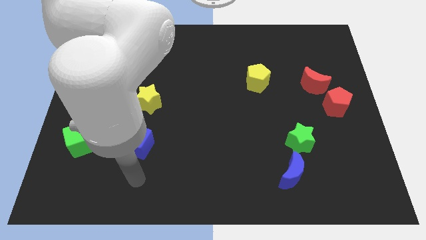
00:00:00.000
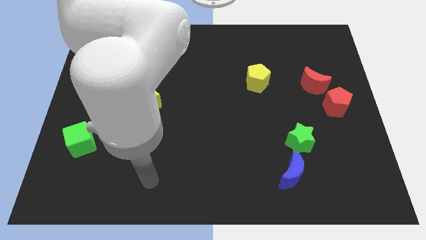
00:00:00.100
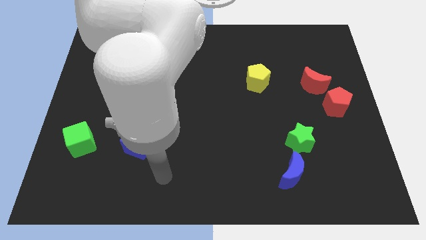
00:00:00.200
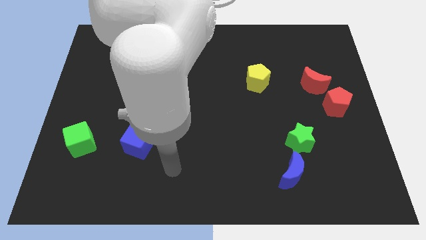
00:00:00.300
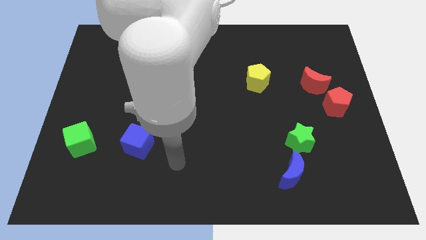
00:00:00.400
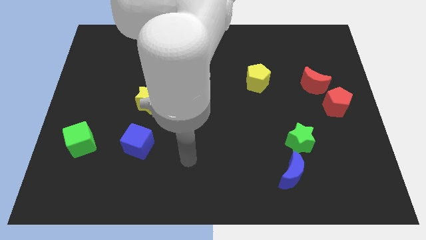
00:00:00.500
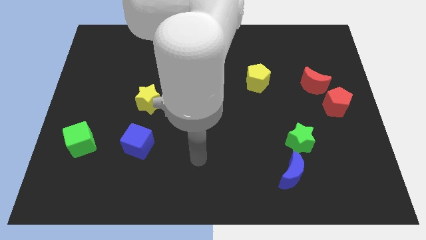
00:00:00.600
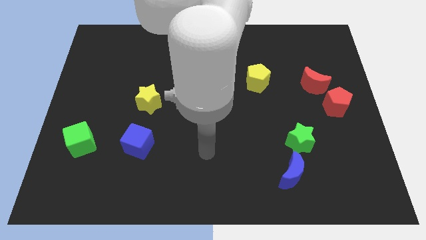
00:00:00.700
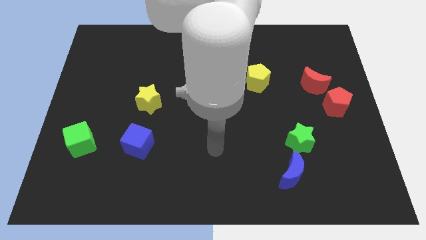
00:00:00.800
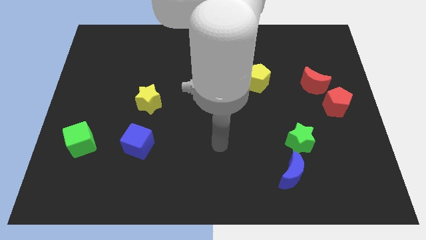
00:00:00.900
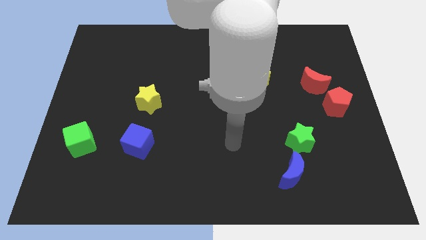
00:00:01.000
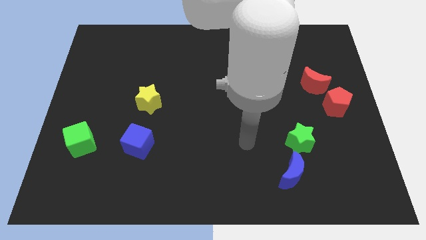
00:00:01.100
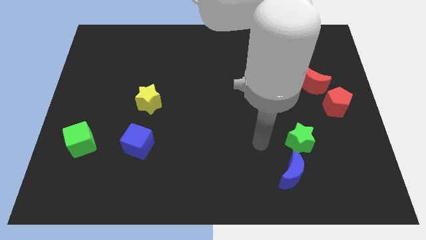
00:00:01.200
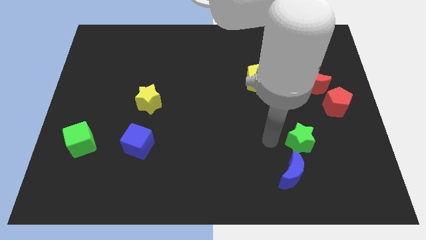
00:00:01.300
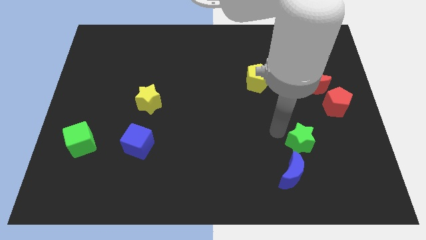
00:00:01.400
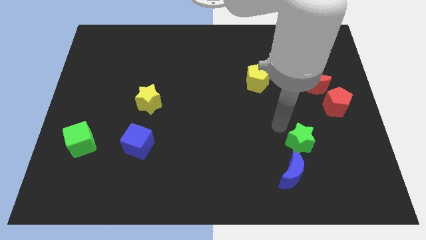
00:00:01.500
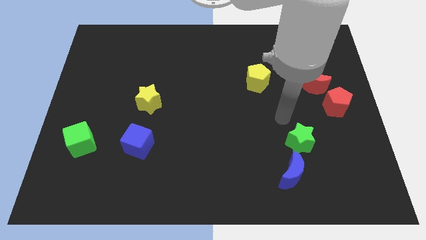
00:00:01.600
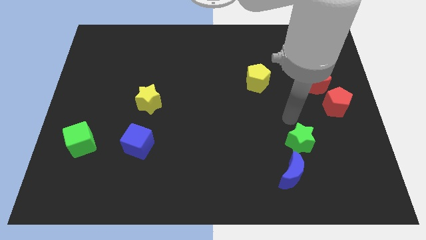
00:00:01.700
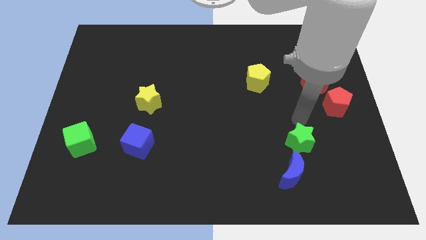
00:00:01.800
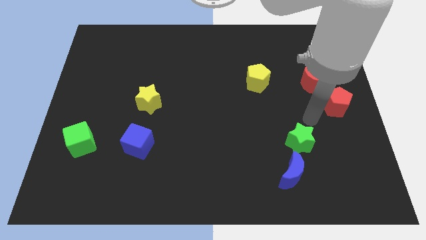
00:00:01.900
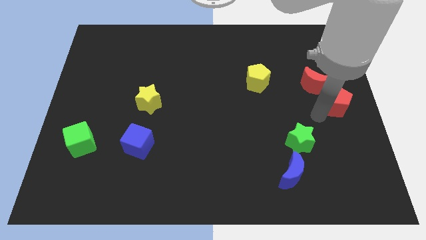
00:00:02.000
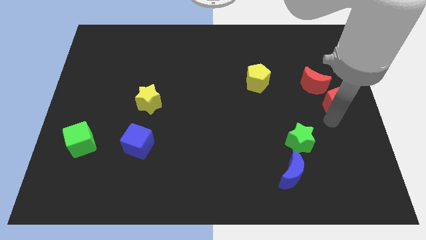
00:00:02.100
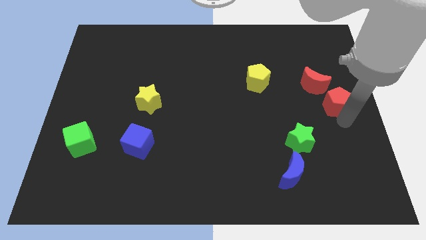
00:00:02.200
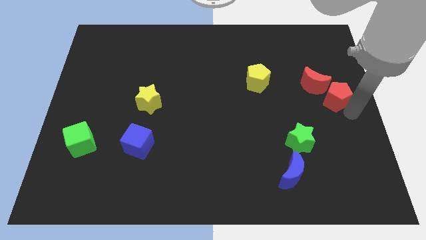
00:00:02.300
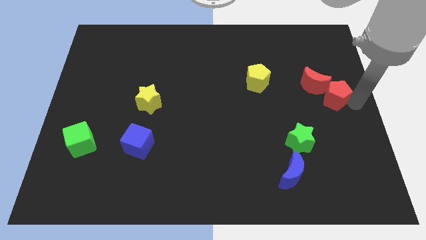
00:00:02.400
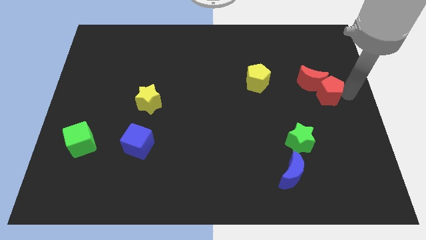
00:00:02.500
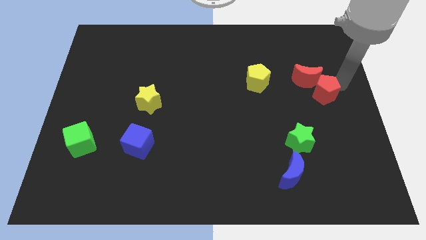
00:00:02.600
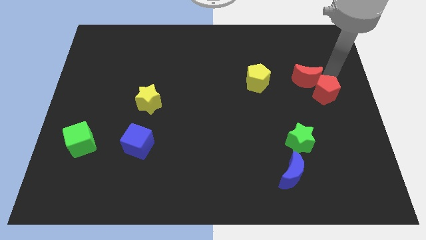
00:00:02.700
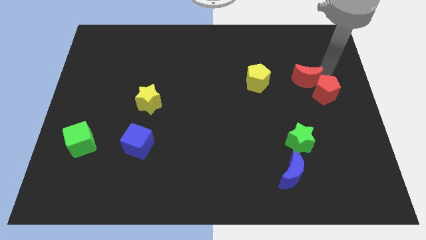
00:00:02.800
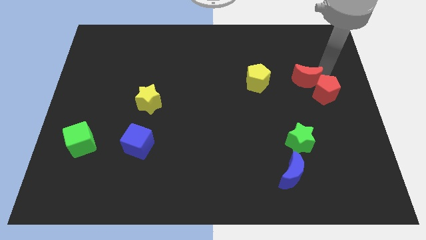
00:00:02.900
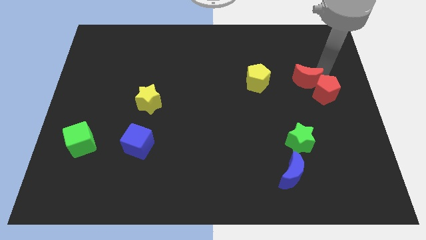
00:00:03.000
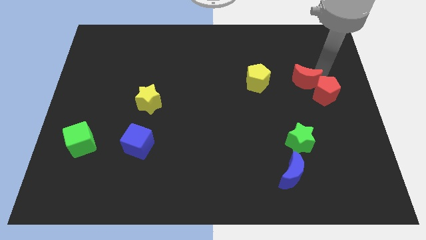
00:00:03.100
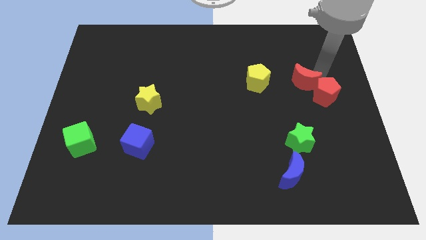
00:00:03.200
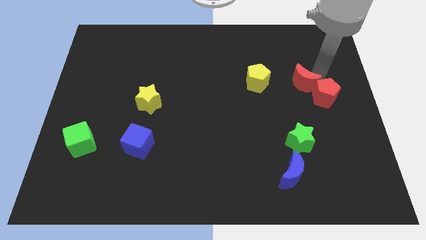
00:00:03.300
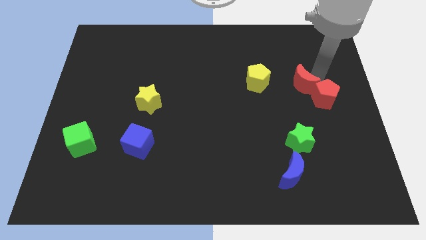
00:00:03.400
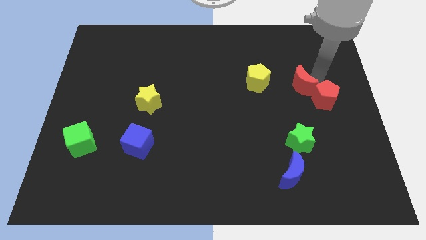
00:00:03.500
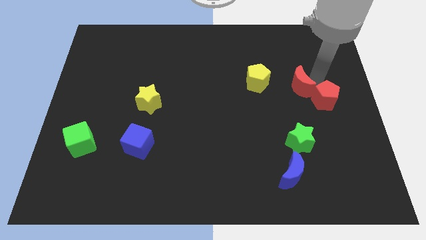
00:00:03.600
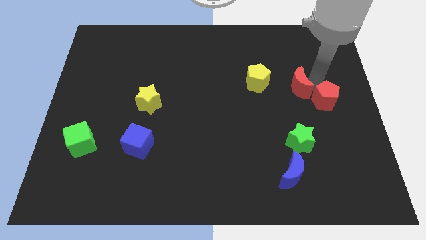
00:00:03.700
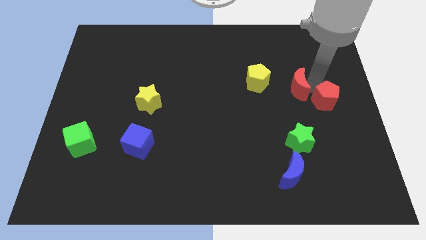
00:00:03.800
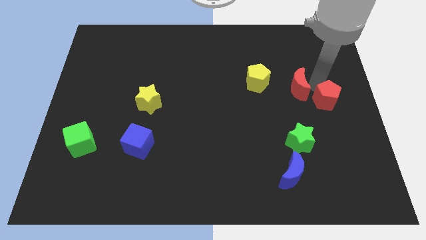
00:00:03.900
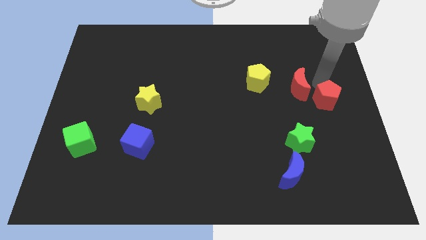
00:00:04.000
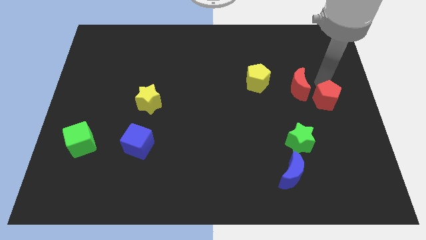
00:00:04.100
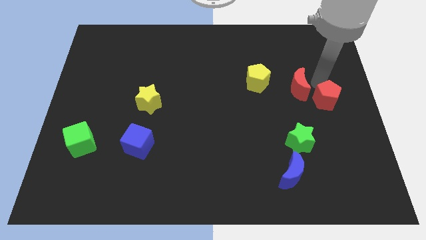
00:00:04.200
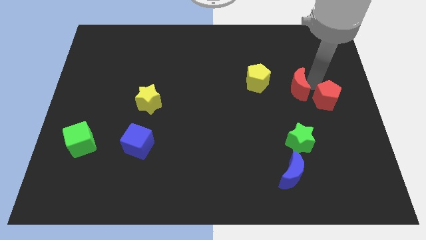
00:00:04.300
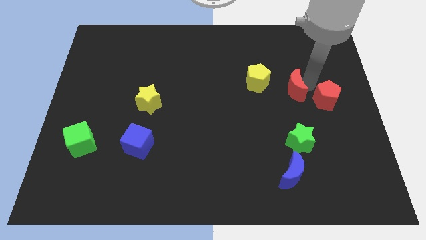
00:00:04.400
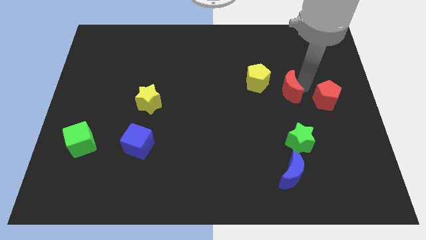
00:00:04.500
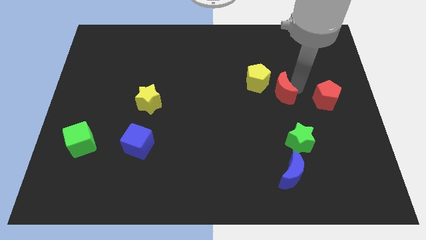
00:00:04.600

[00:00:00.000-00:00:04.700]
slide the red moon a little bit left

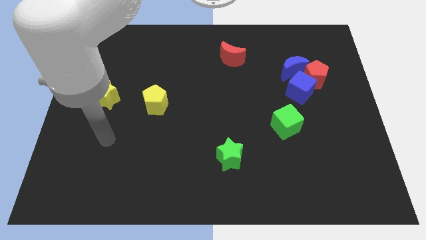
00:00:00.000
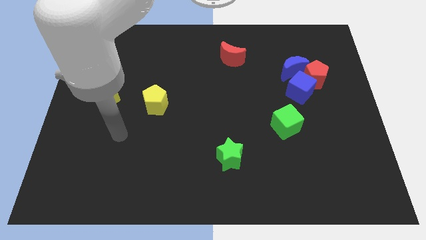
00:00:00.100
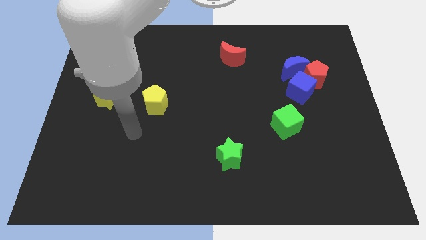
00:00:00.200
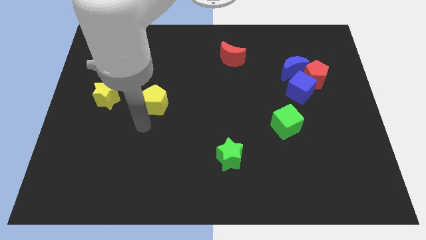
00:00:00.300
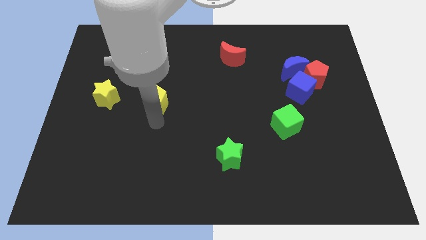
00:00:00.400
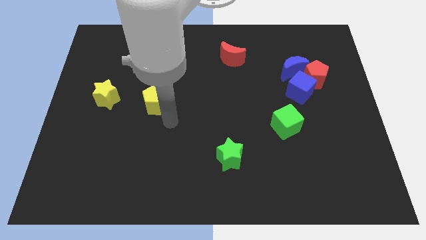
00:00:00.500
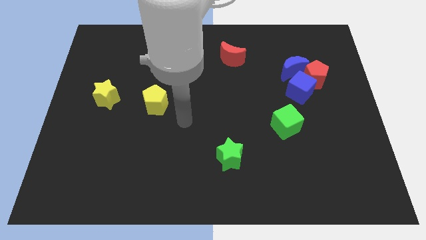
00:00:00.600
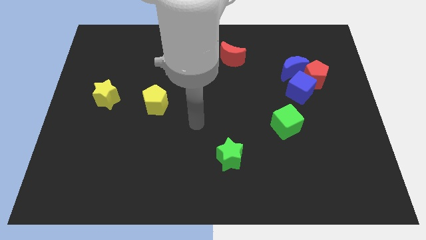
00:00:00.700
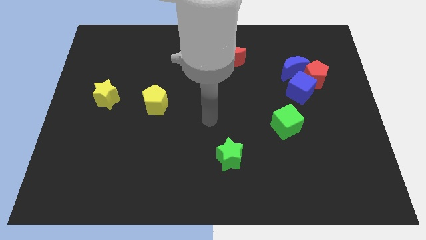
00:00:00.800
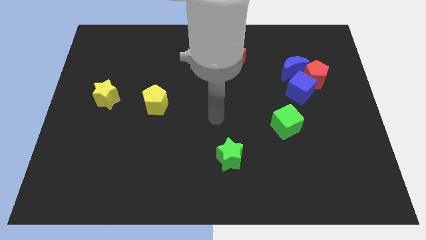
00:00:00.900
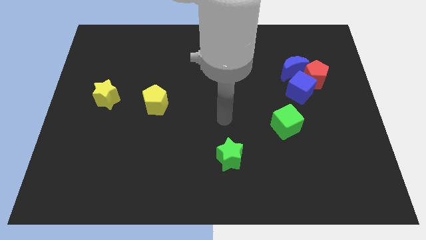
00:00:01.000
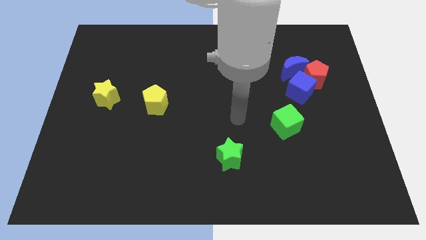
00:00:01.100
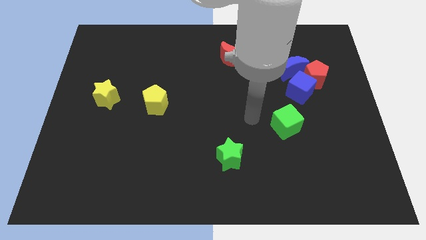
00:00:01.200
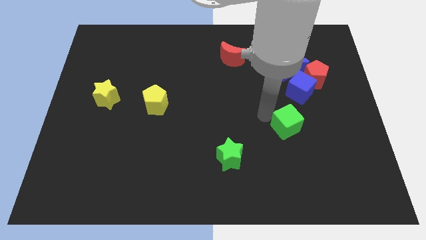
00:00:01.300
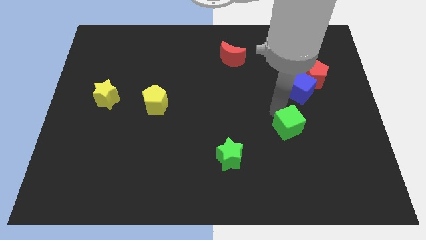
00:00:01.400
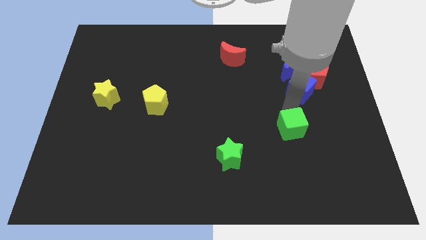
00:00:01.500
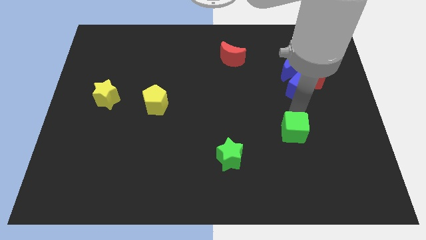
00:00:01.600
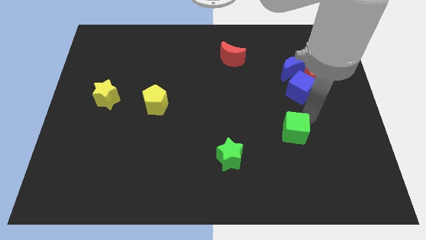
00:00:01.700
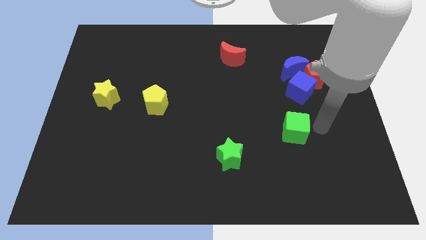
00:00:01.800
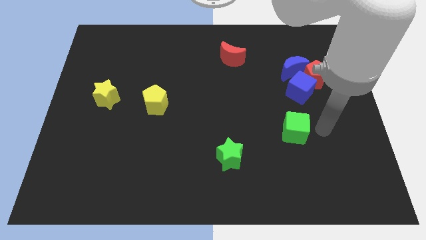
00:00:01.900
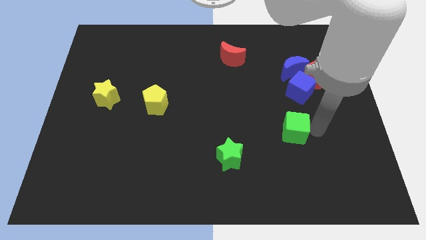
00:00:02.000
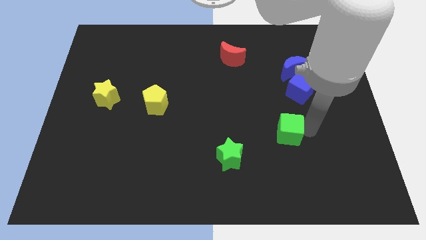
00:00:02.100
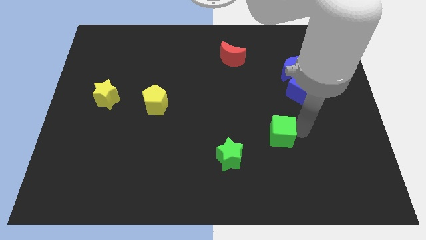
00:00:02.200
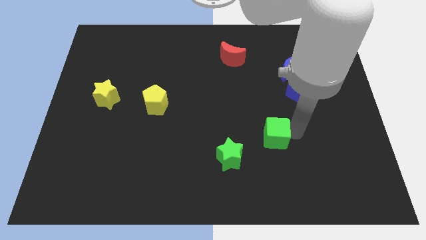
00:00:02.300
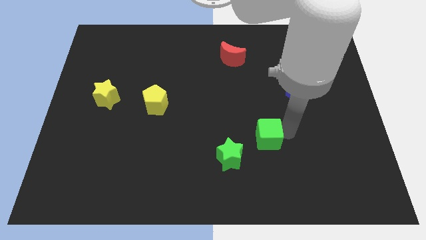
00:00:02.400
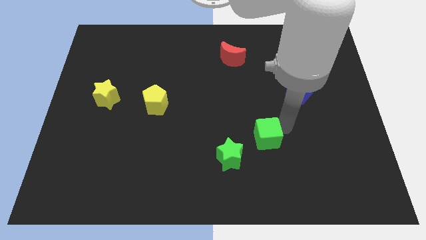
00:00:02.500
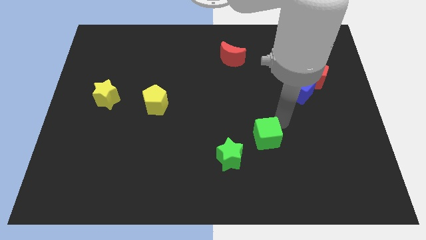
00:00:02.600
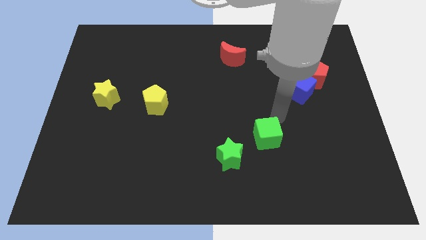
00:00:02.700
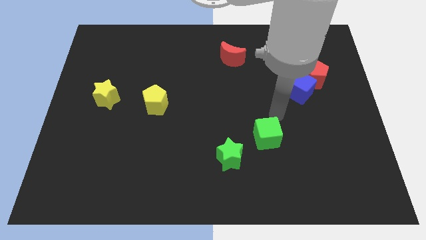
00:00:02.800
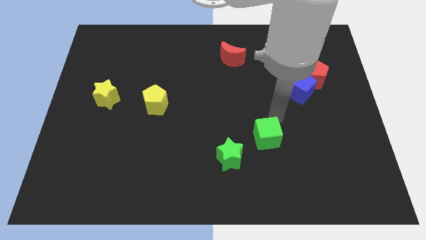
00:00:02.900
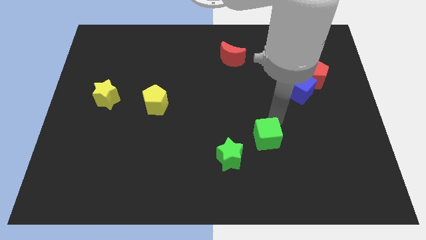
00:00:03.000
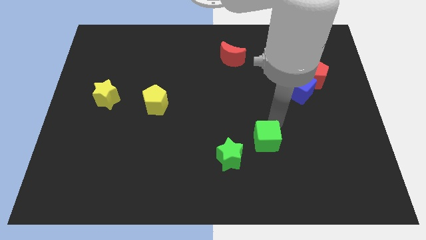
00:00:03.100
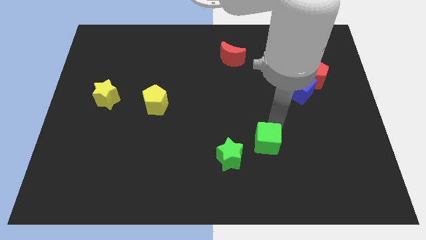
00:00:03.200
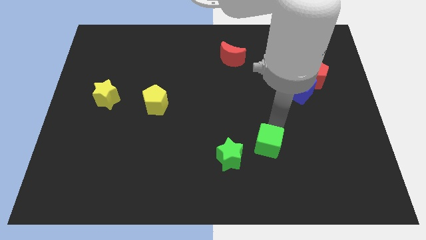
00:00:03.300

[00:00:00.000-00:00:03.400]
push the green cube somewhat downwards and left diagonally
